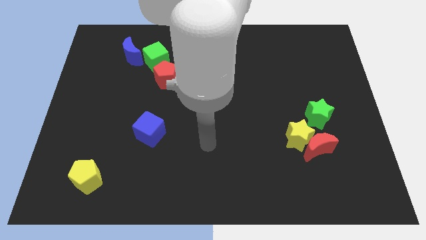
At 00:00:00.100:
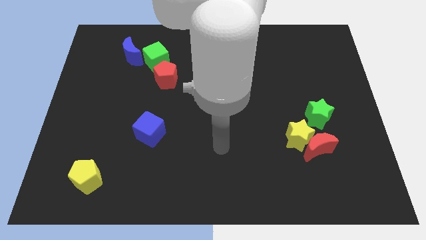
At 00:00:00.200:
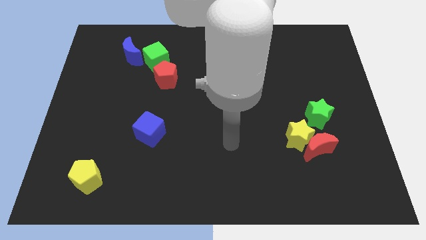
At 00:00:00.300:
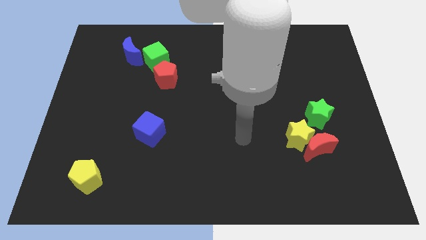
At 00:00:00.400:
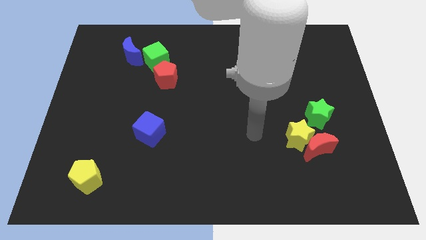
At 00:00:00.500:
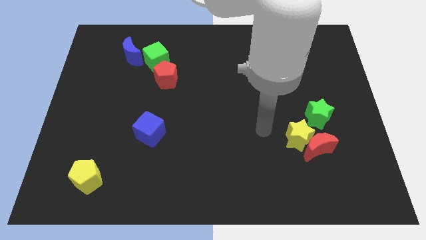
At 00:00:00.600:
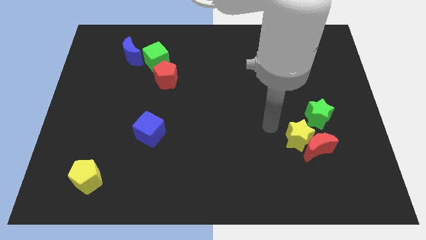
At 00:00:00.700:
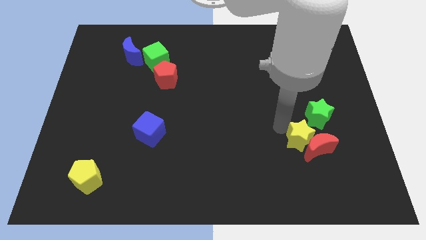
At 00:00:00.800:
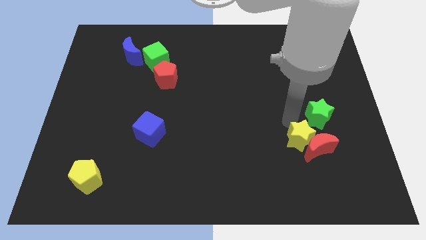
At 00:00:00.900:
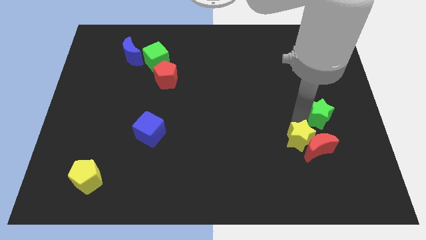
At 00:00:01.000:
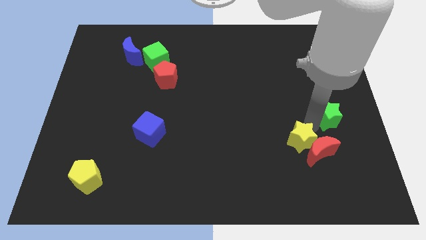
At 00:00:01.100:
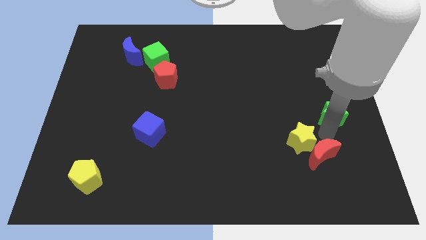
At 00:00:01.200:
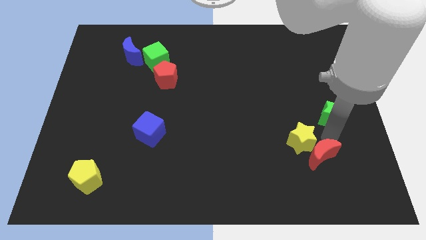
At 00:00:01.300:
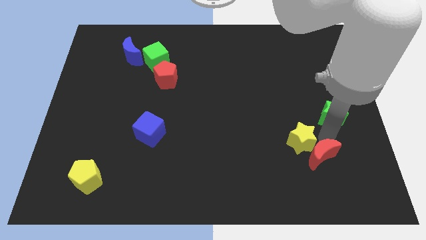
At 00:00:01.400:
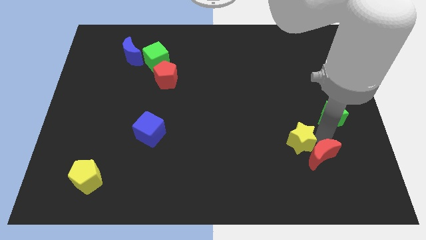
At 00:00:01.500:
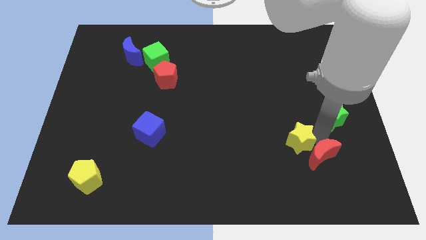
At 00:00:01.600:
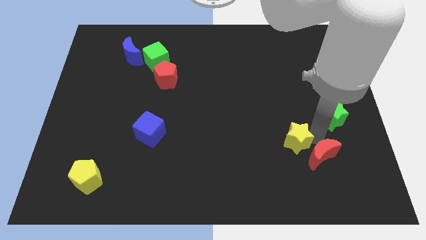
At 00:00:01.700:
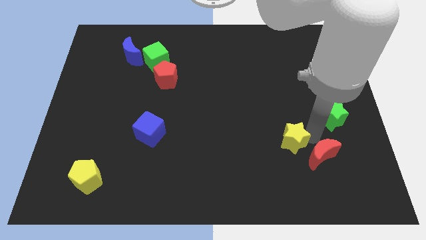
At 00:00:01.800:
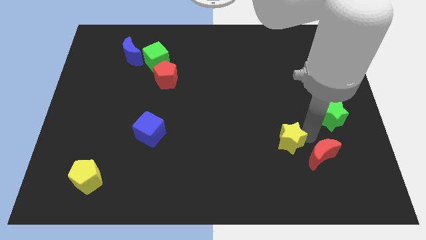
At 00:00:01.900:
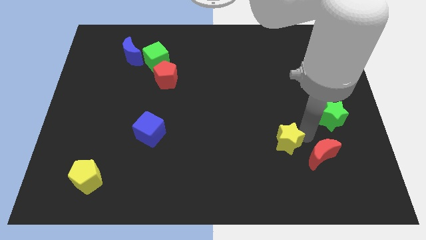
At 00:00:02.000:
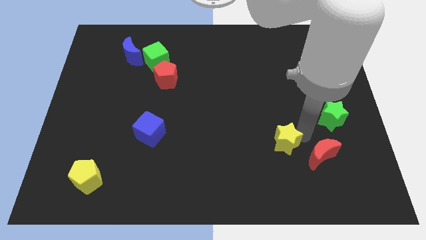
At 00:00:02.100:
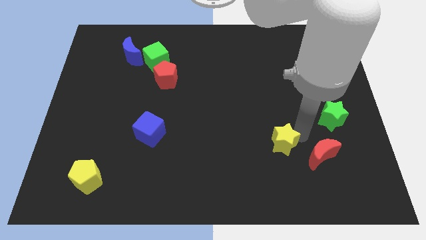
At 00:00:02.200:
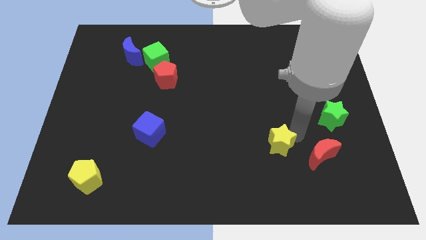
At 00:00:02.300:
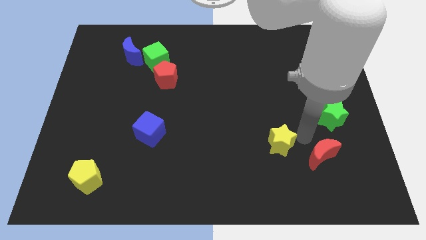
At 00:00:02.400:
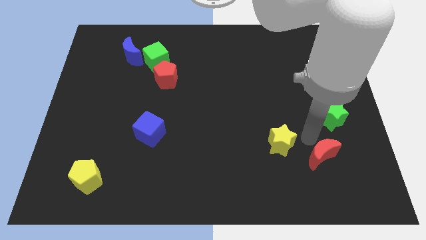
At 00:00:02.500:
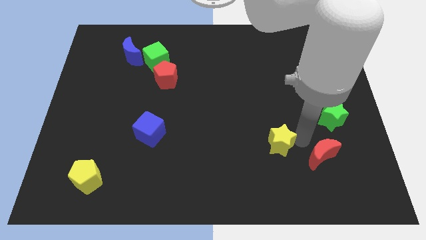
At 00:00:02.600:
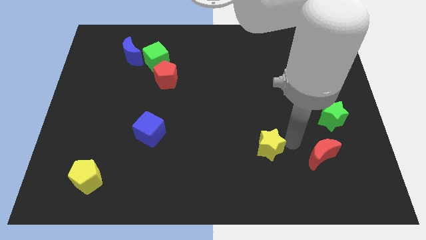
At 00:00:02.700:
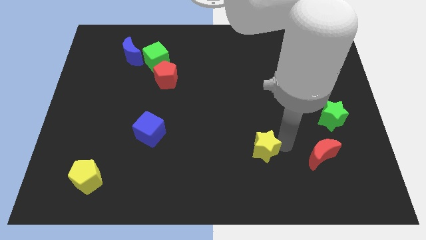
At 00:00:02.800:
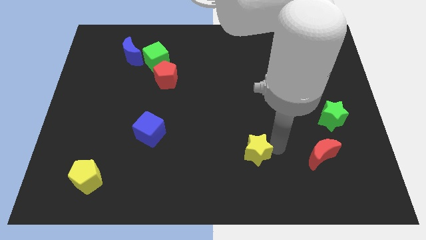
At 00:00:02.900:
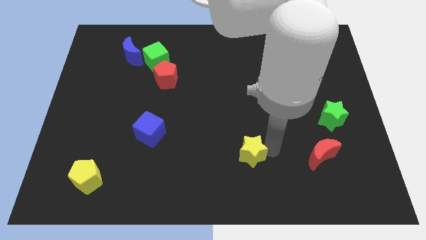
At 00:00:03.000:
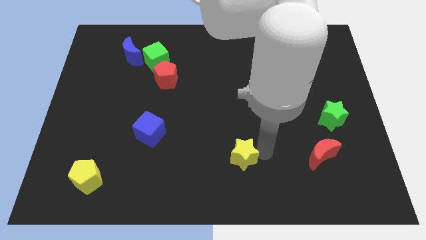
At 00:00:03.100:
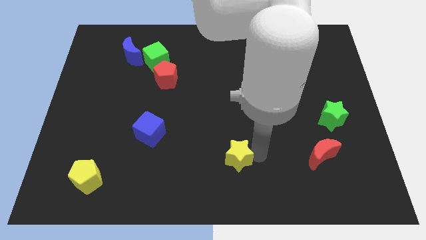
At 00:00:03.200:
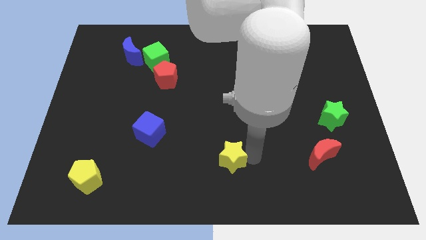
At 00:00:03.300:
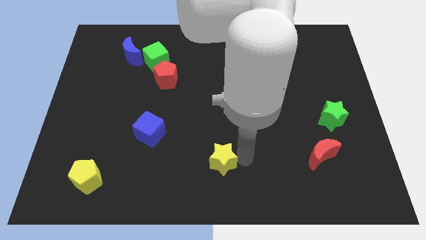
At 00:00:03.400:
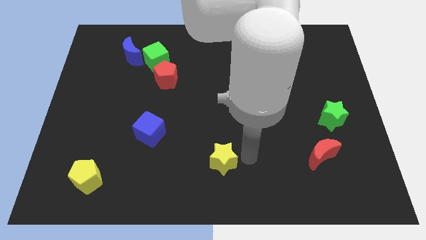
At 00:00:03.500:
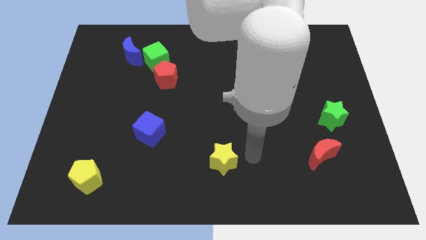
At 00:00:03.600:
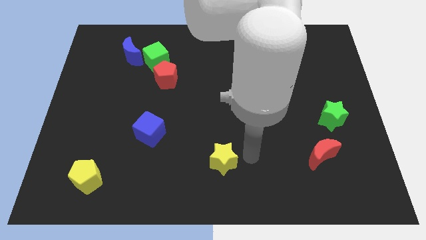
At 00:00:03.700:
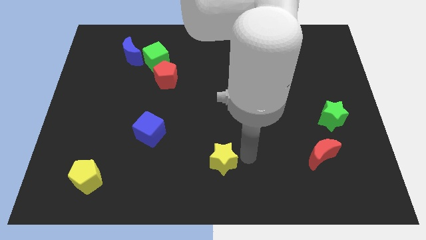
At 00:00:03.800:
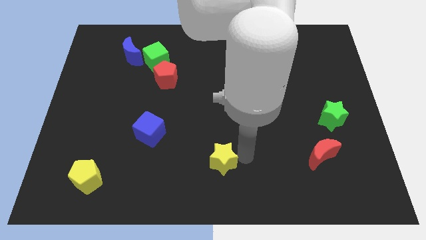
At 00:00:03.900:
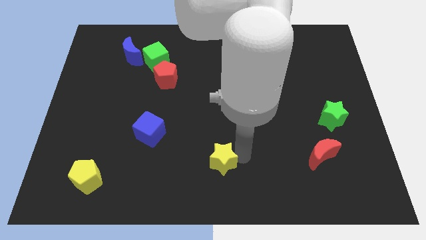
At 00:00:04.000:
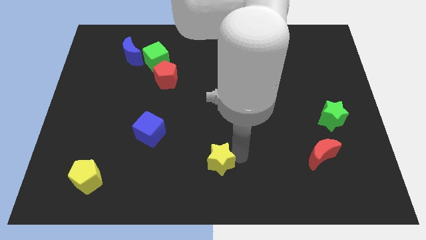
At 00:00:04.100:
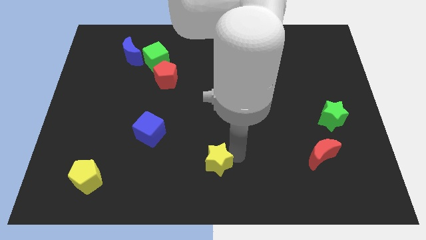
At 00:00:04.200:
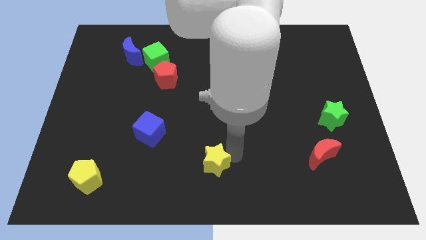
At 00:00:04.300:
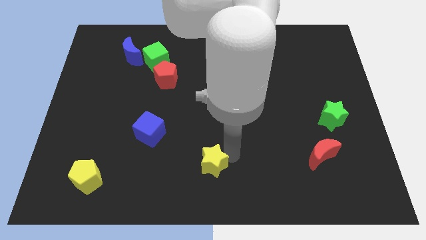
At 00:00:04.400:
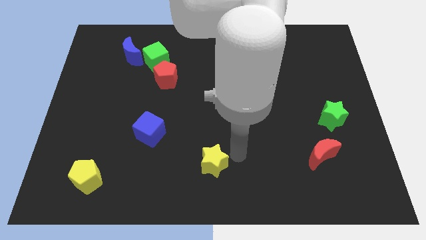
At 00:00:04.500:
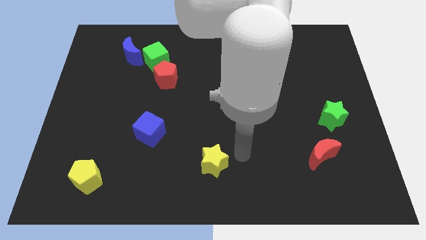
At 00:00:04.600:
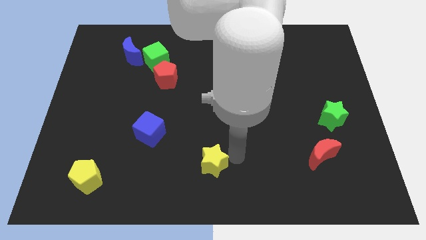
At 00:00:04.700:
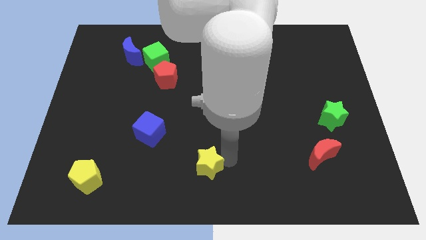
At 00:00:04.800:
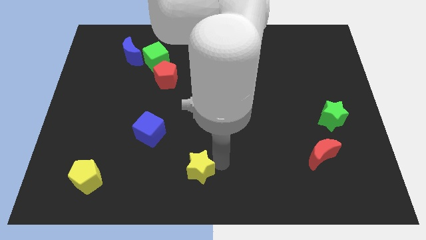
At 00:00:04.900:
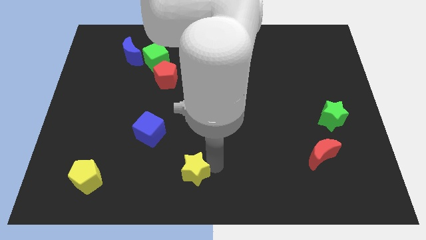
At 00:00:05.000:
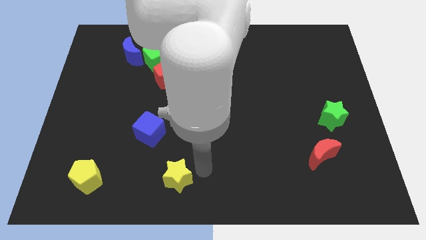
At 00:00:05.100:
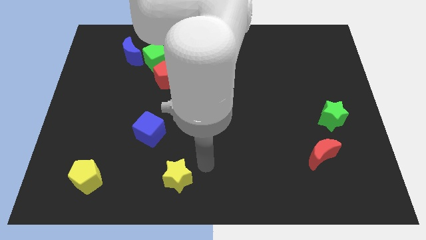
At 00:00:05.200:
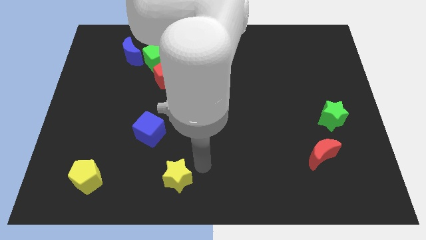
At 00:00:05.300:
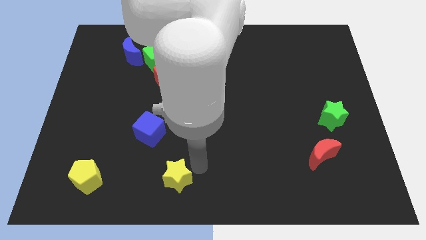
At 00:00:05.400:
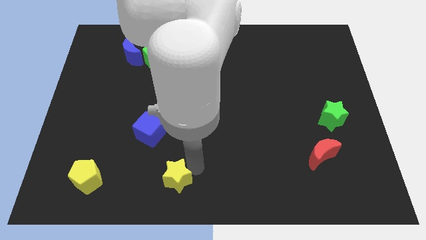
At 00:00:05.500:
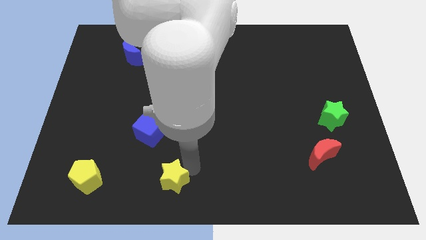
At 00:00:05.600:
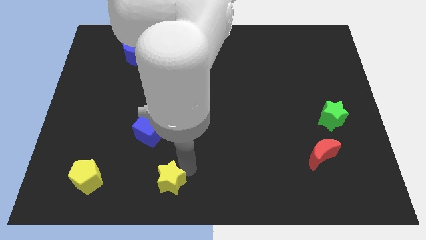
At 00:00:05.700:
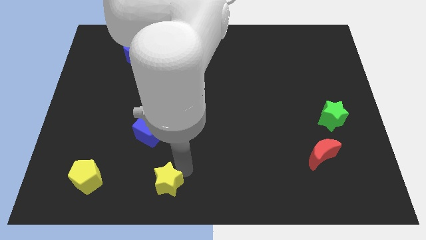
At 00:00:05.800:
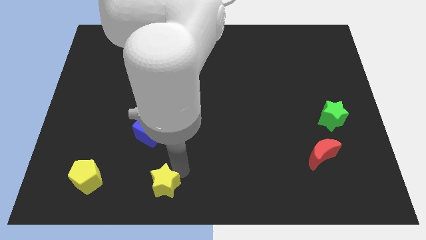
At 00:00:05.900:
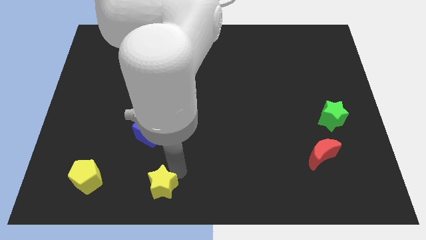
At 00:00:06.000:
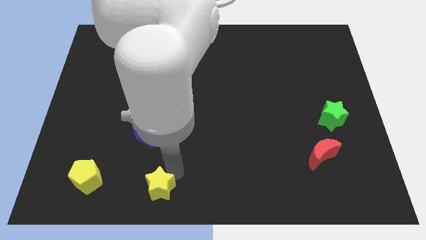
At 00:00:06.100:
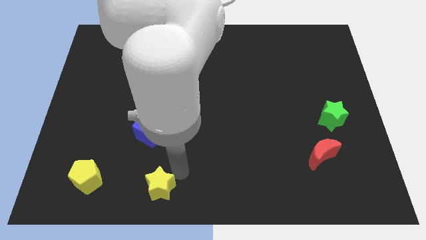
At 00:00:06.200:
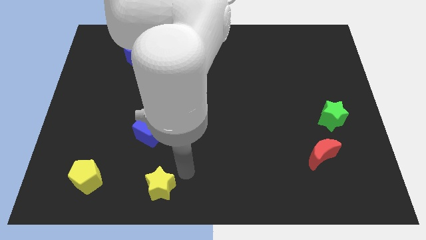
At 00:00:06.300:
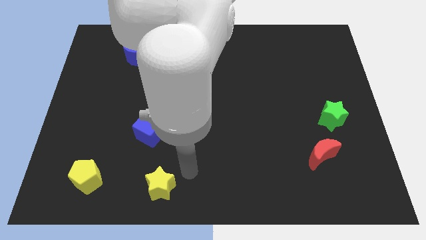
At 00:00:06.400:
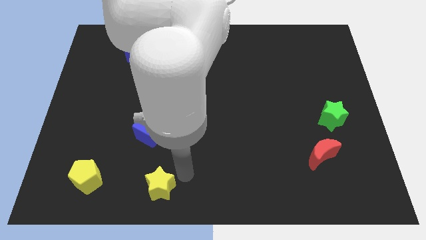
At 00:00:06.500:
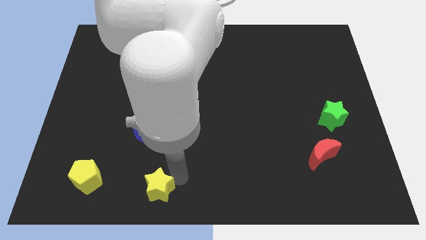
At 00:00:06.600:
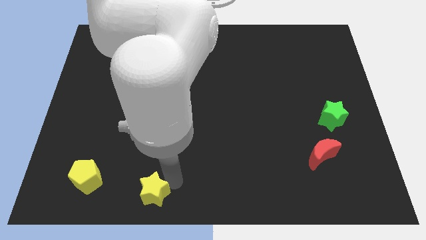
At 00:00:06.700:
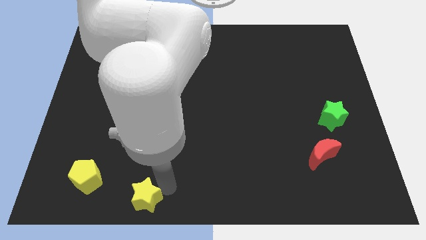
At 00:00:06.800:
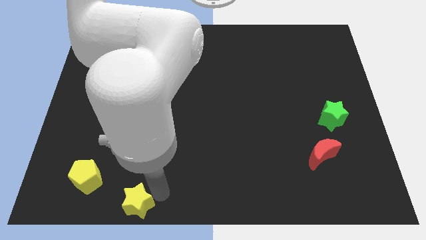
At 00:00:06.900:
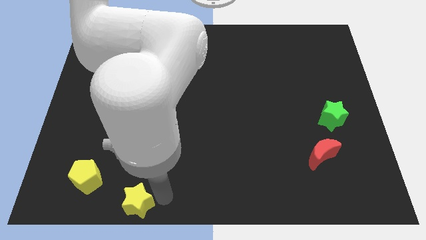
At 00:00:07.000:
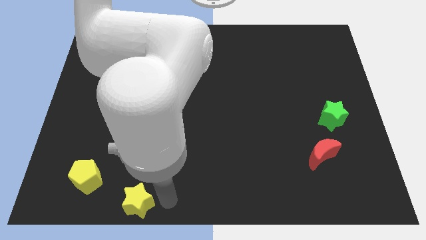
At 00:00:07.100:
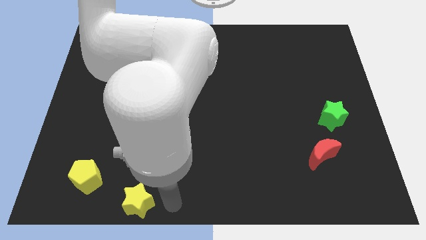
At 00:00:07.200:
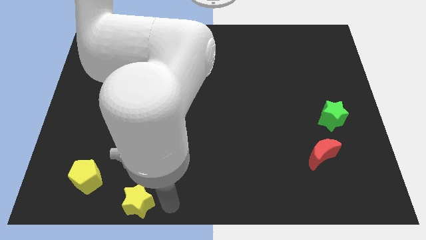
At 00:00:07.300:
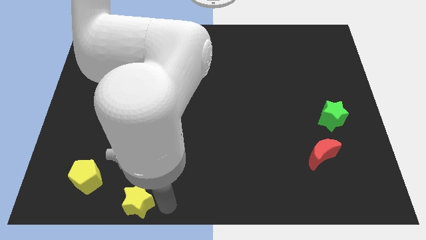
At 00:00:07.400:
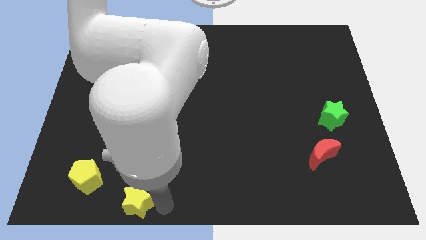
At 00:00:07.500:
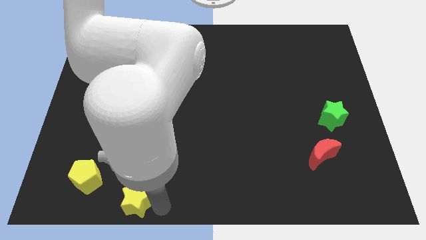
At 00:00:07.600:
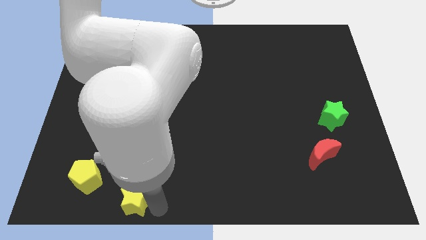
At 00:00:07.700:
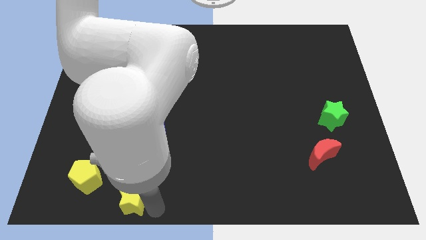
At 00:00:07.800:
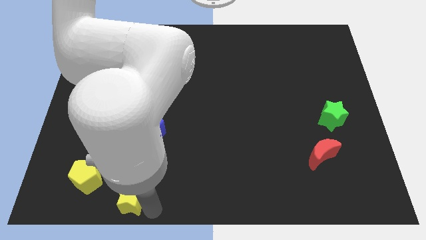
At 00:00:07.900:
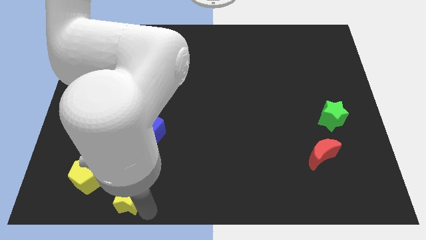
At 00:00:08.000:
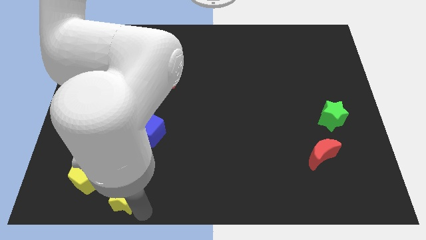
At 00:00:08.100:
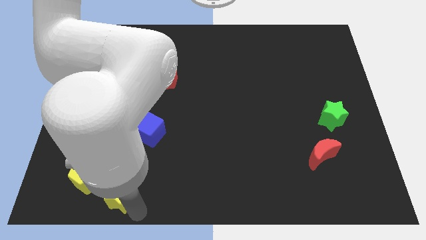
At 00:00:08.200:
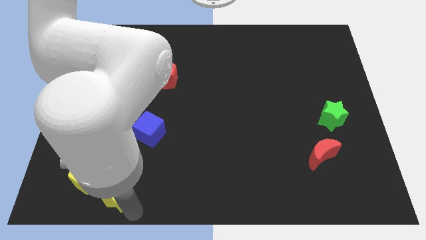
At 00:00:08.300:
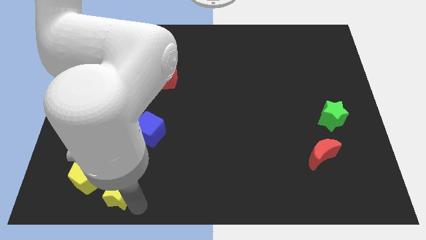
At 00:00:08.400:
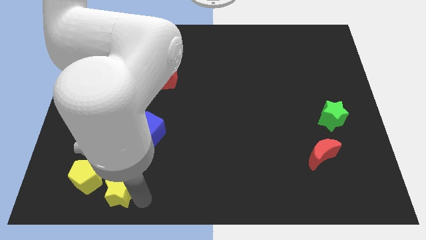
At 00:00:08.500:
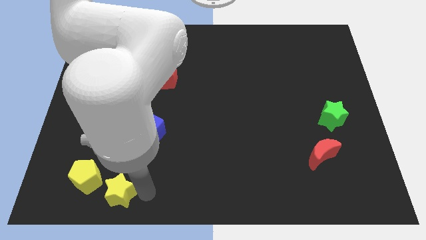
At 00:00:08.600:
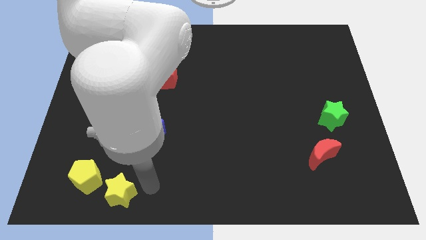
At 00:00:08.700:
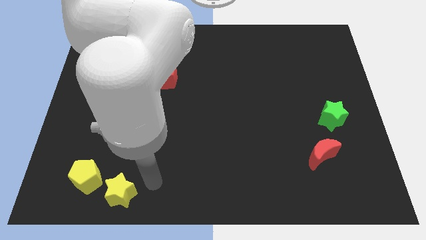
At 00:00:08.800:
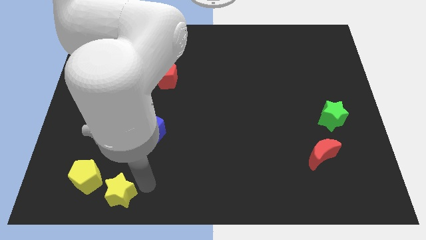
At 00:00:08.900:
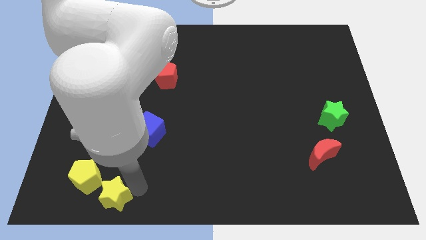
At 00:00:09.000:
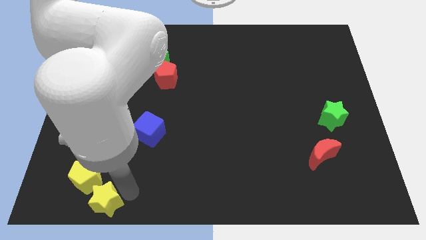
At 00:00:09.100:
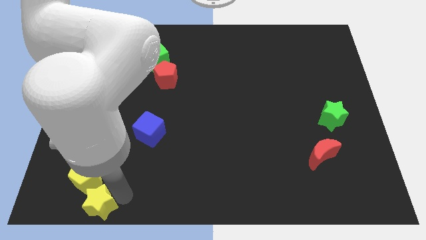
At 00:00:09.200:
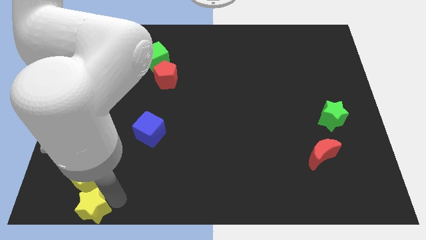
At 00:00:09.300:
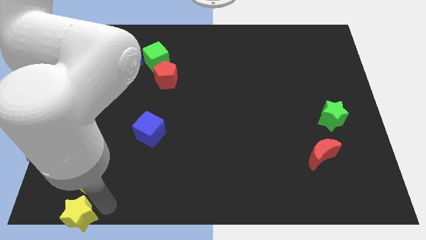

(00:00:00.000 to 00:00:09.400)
slide the yellow star to the bottom left corner
